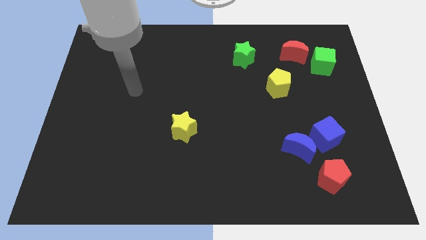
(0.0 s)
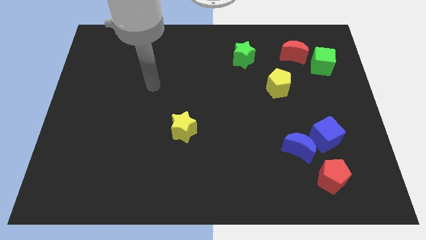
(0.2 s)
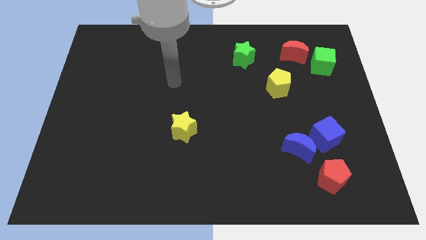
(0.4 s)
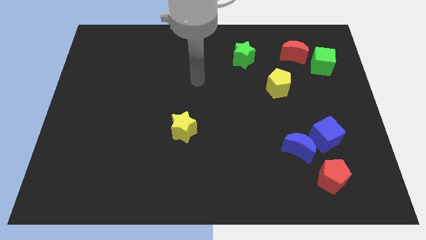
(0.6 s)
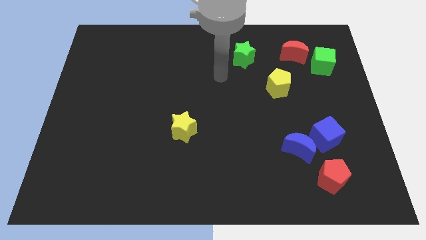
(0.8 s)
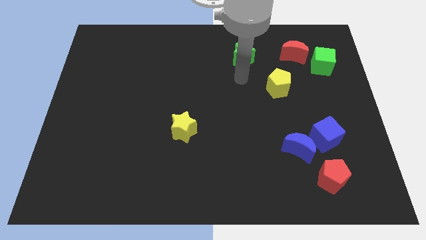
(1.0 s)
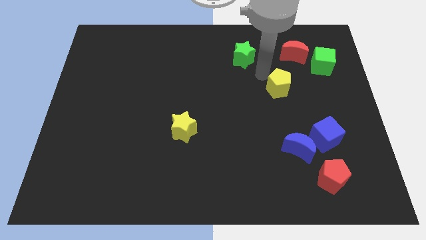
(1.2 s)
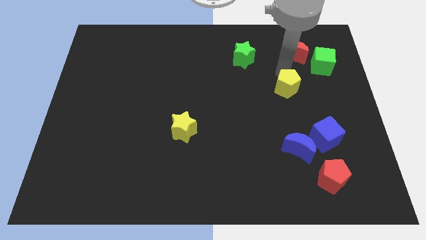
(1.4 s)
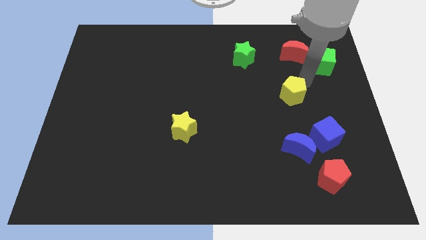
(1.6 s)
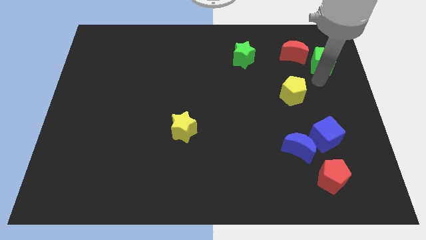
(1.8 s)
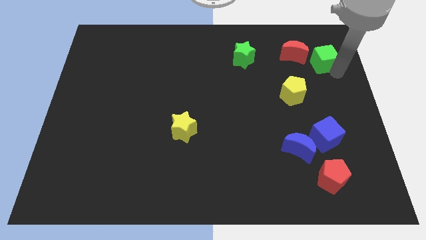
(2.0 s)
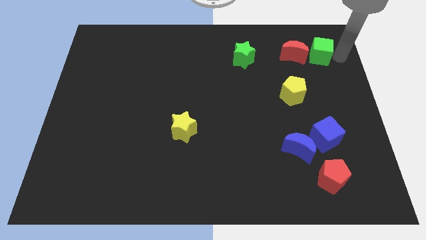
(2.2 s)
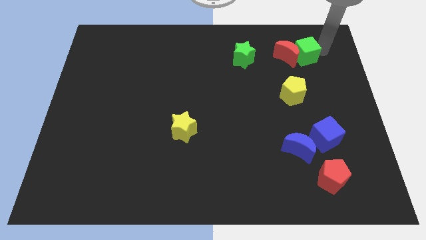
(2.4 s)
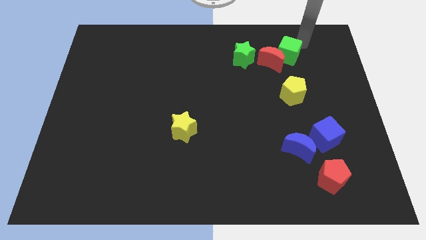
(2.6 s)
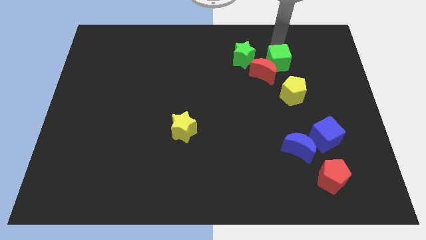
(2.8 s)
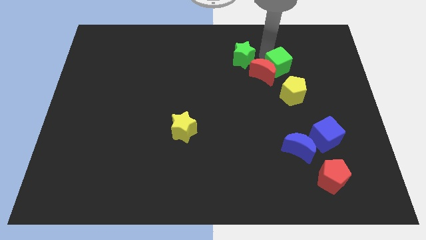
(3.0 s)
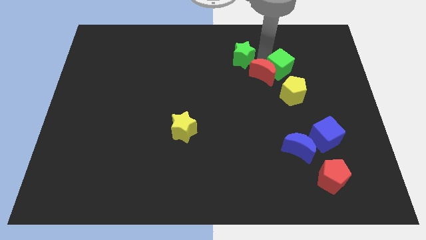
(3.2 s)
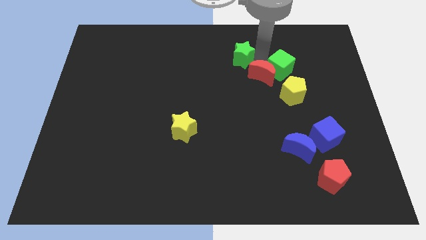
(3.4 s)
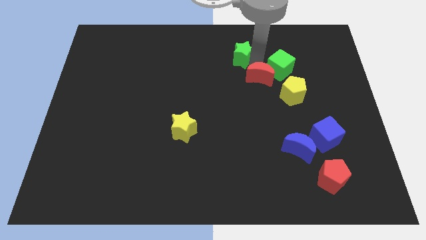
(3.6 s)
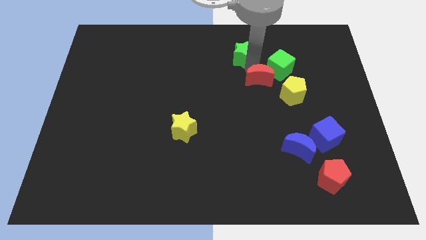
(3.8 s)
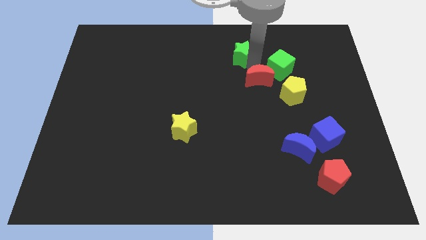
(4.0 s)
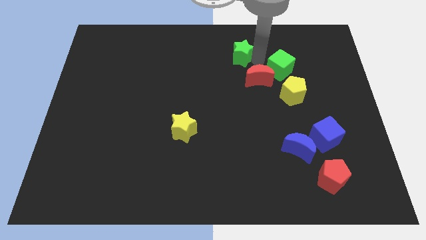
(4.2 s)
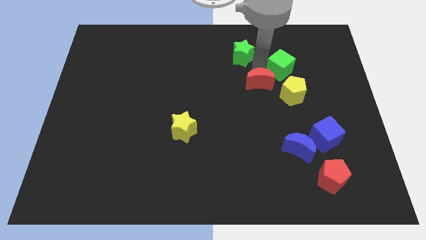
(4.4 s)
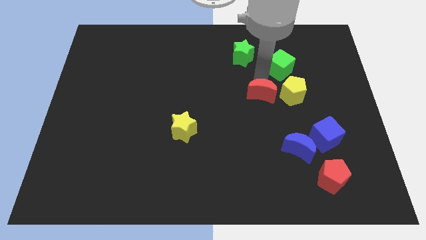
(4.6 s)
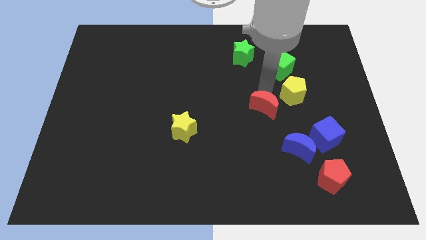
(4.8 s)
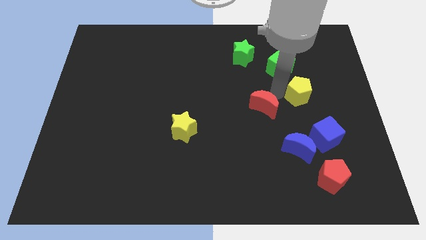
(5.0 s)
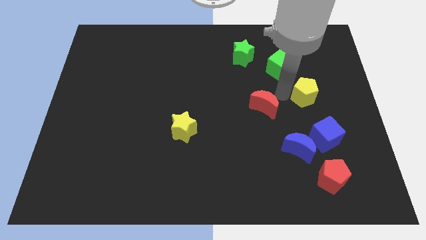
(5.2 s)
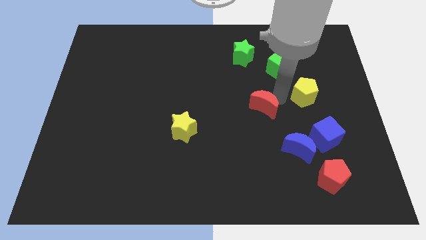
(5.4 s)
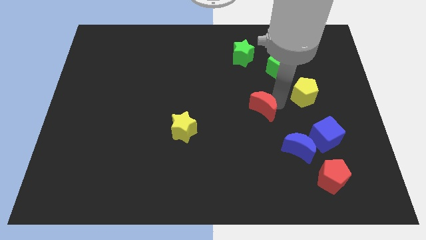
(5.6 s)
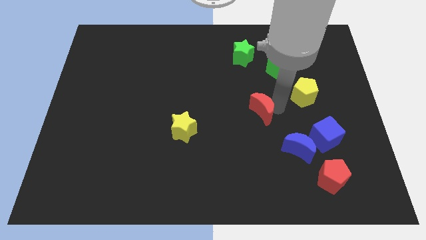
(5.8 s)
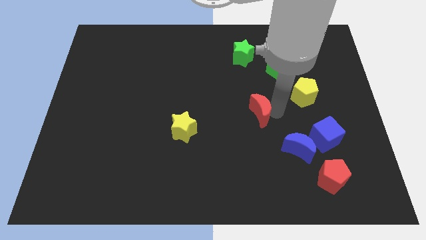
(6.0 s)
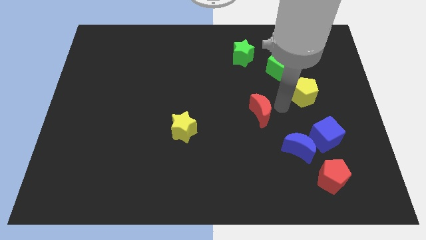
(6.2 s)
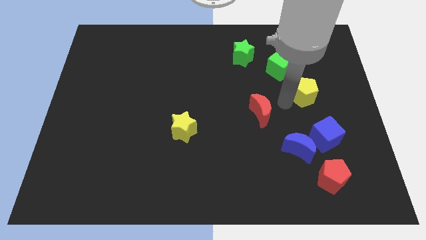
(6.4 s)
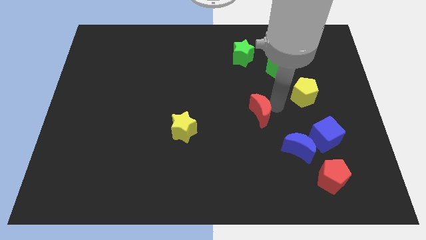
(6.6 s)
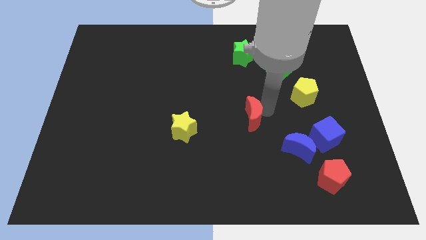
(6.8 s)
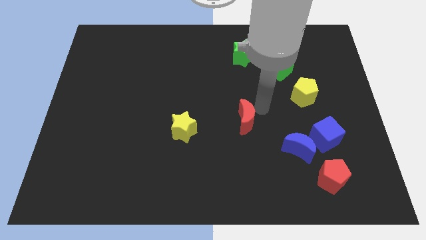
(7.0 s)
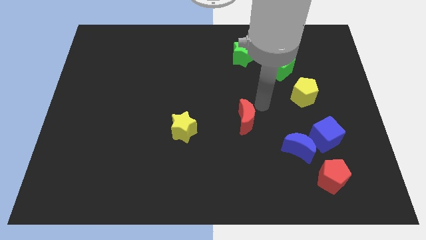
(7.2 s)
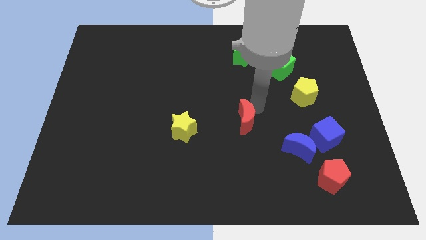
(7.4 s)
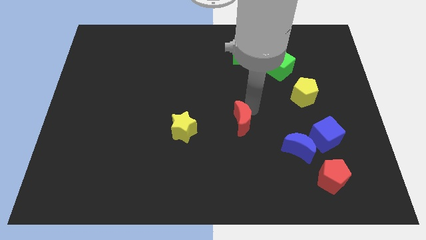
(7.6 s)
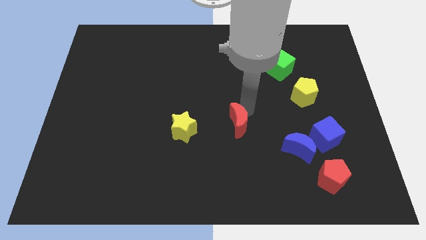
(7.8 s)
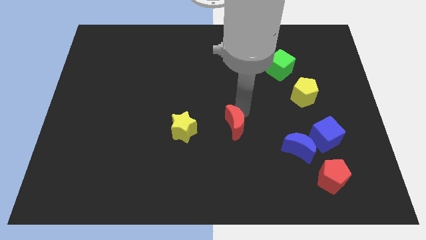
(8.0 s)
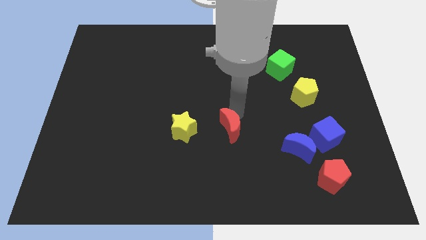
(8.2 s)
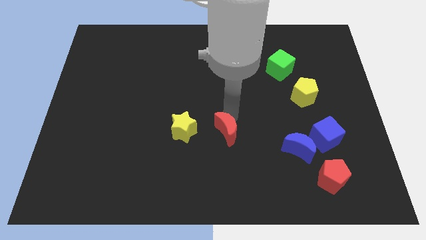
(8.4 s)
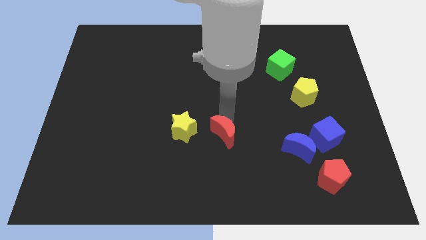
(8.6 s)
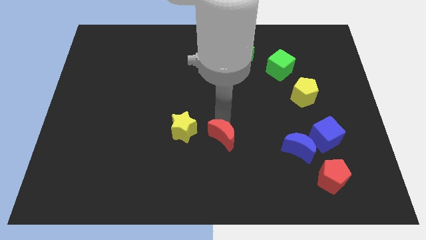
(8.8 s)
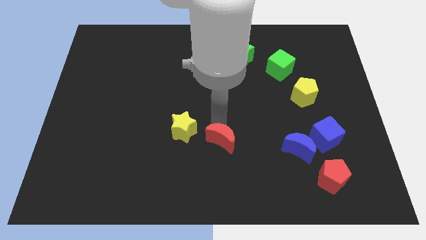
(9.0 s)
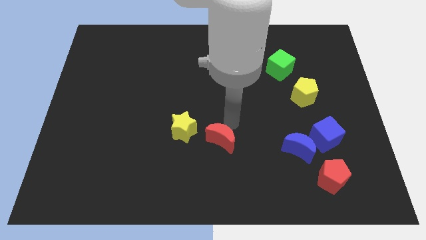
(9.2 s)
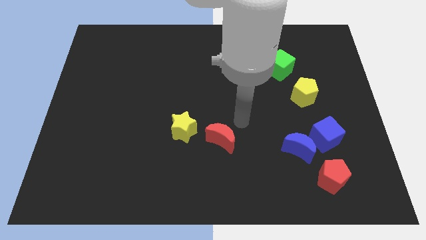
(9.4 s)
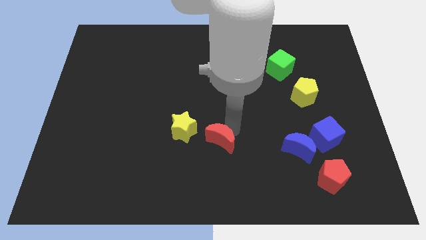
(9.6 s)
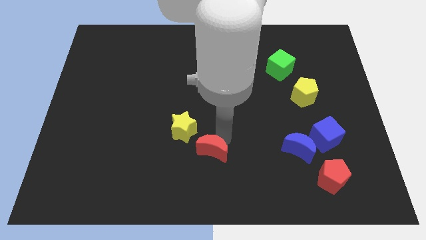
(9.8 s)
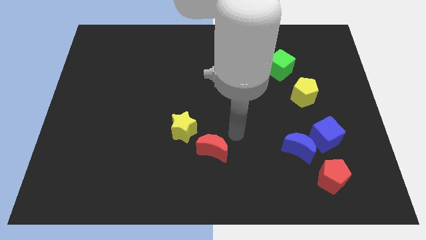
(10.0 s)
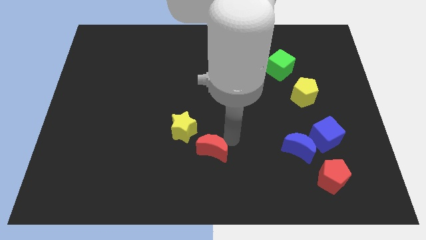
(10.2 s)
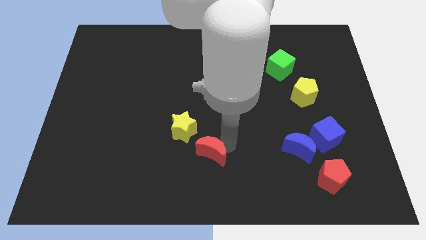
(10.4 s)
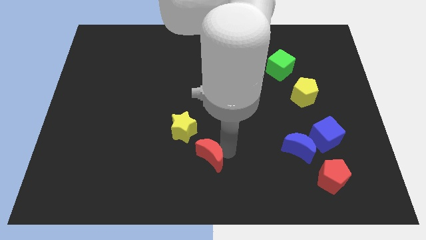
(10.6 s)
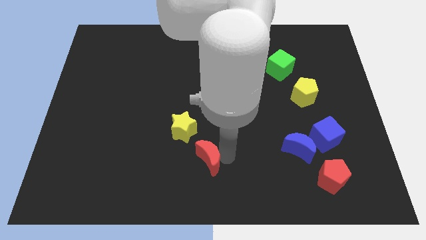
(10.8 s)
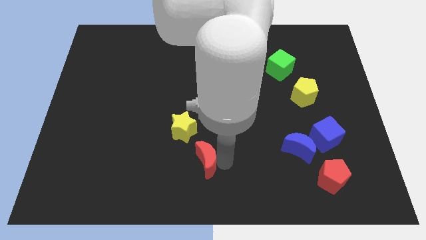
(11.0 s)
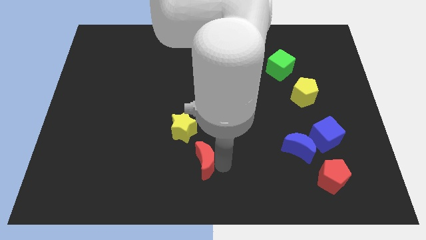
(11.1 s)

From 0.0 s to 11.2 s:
push the red moon to the bottom of the yellow star

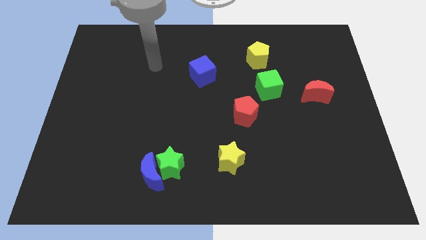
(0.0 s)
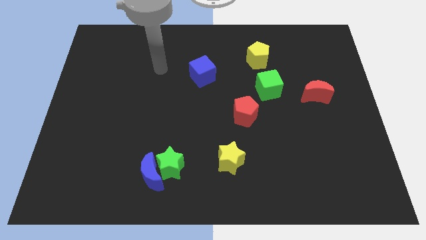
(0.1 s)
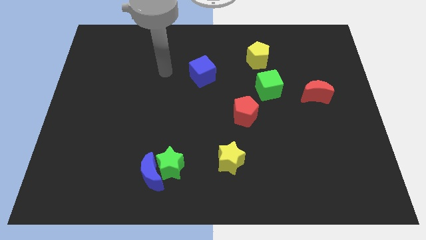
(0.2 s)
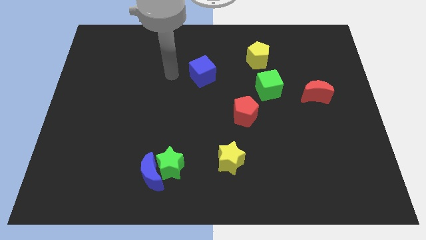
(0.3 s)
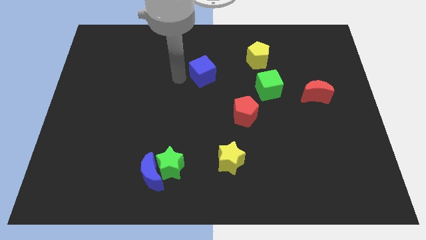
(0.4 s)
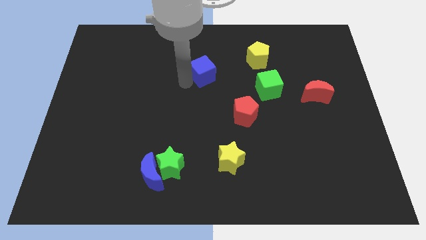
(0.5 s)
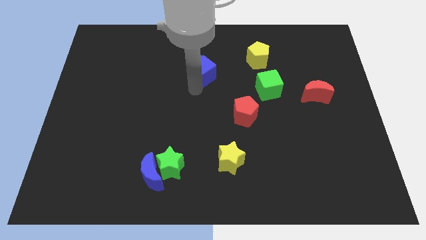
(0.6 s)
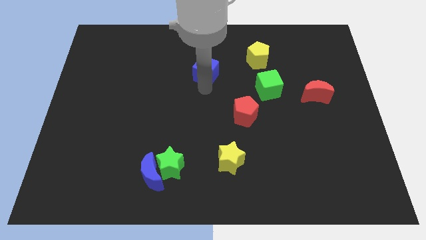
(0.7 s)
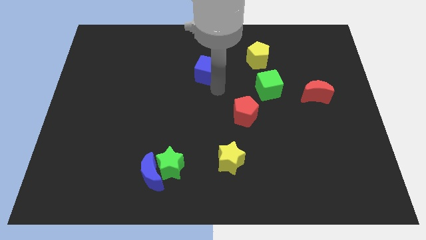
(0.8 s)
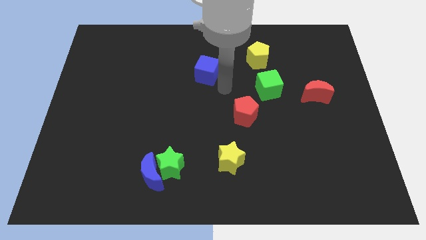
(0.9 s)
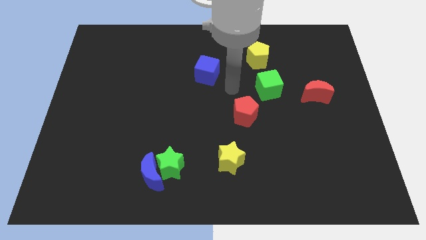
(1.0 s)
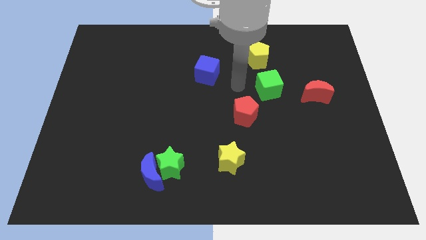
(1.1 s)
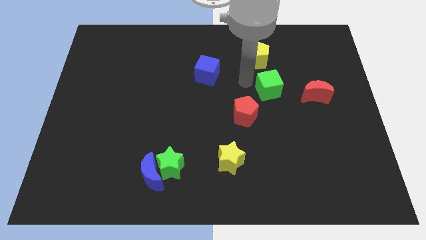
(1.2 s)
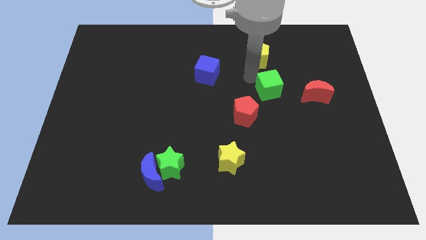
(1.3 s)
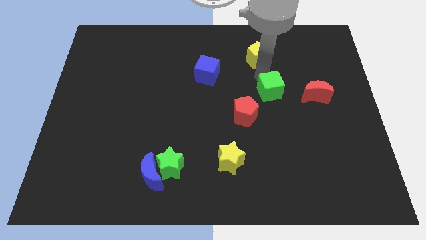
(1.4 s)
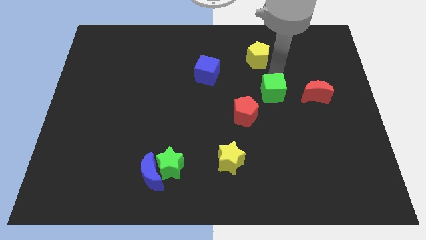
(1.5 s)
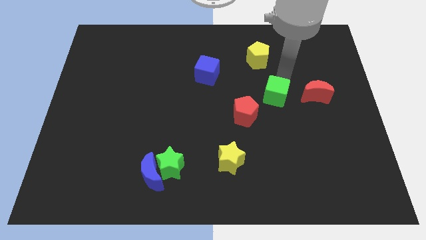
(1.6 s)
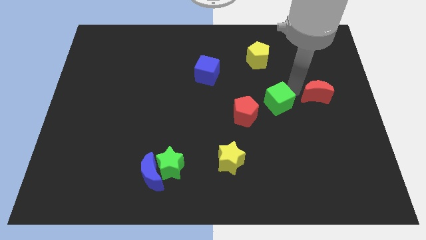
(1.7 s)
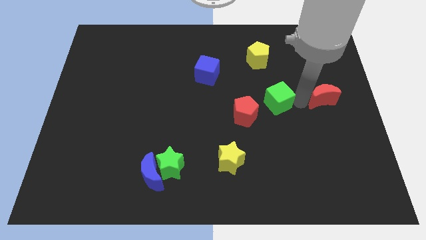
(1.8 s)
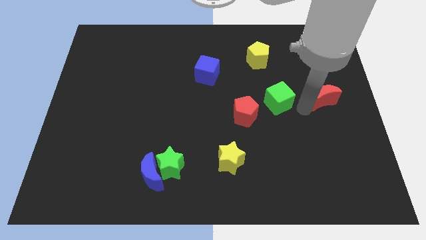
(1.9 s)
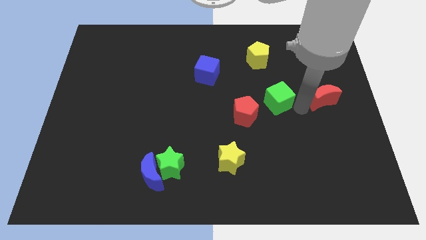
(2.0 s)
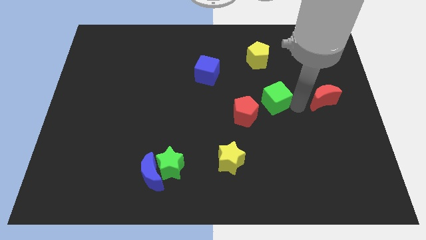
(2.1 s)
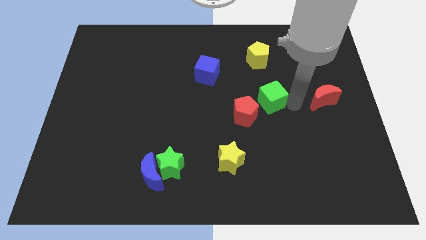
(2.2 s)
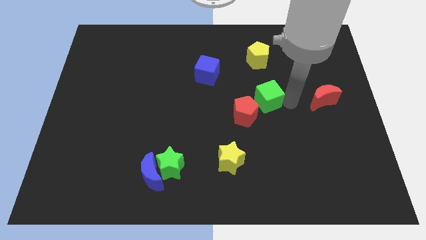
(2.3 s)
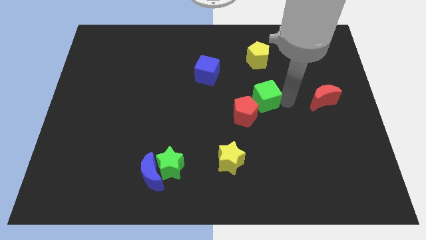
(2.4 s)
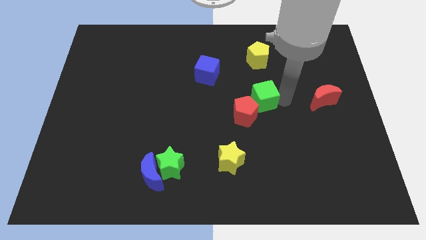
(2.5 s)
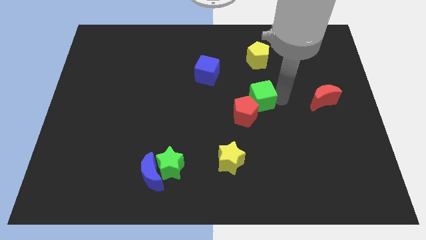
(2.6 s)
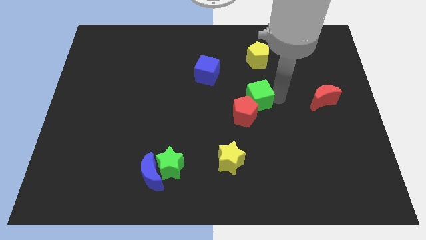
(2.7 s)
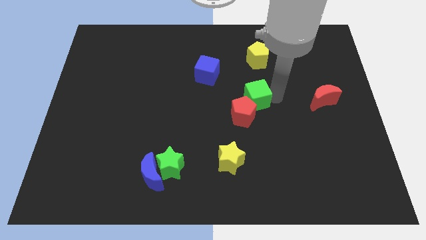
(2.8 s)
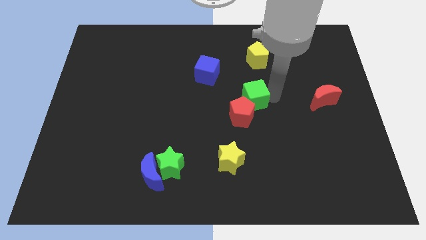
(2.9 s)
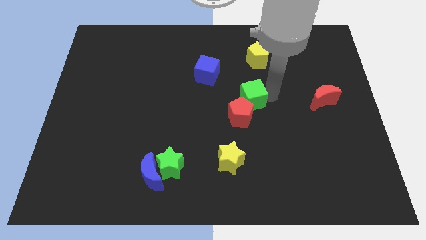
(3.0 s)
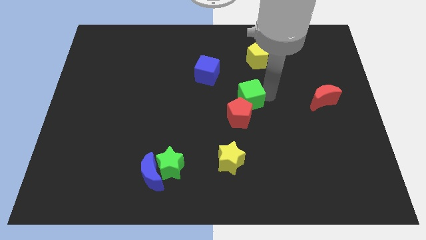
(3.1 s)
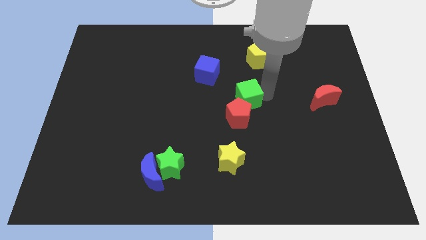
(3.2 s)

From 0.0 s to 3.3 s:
slide the green cube to the bottom right of the blue cube
